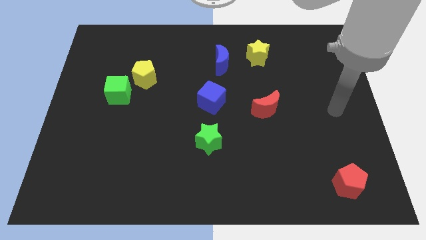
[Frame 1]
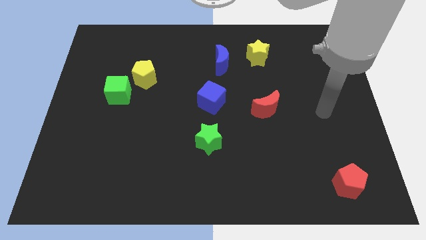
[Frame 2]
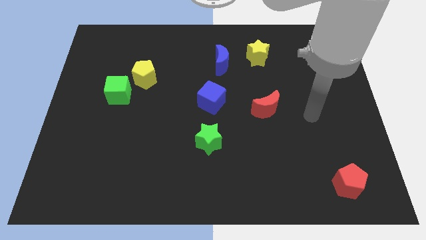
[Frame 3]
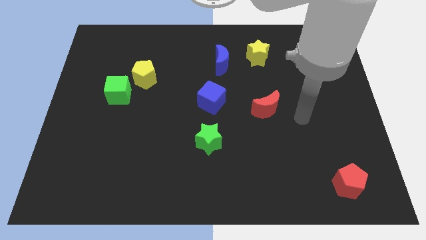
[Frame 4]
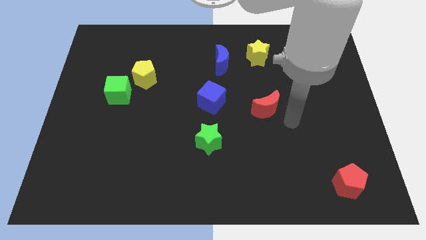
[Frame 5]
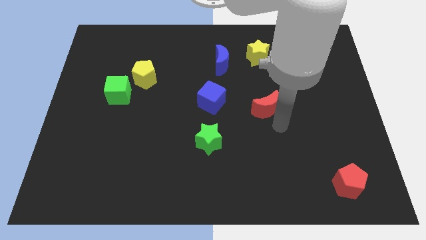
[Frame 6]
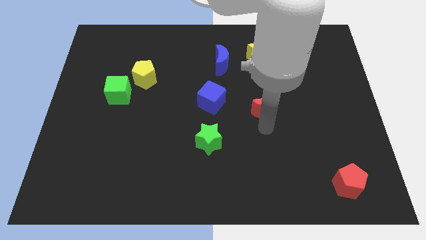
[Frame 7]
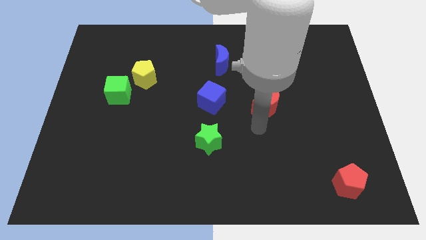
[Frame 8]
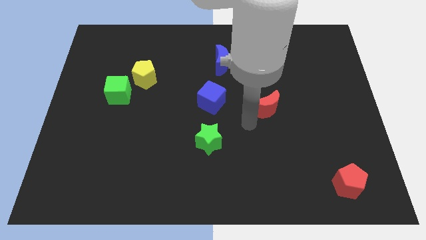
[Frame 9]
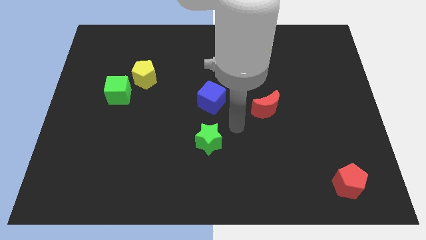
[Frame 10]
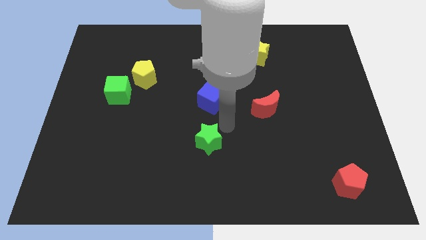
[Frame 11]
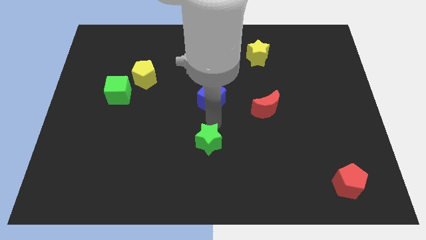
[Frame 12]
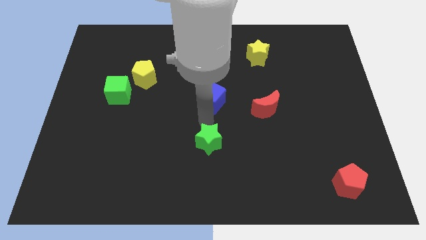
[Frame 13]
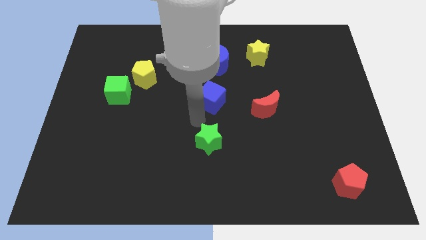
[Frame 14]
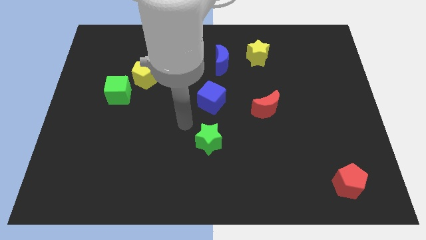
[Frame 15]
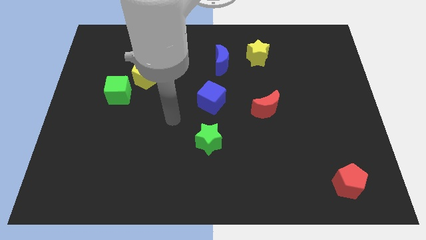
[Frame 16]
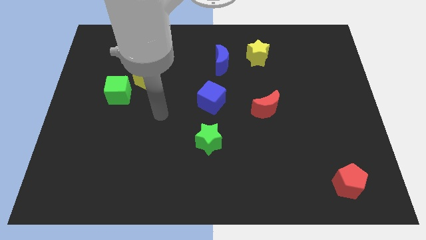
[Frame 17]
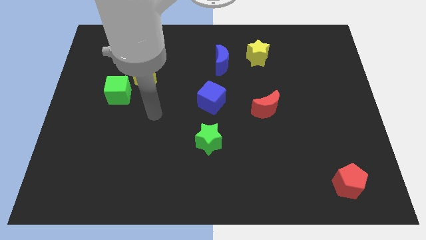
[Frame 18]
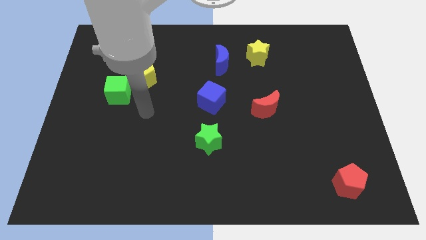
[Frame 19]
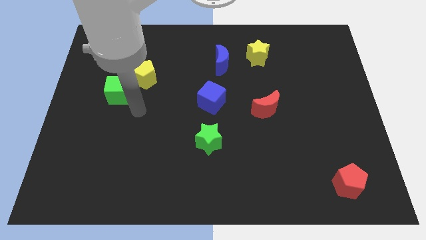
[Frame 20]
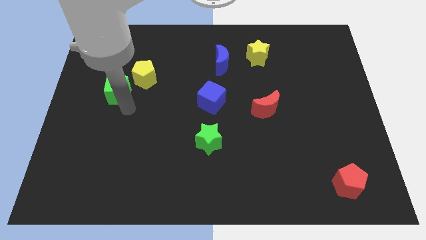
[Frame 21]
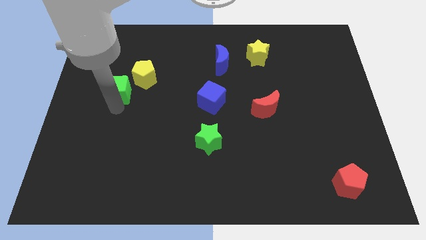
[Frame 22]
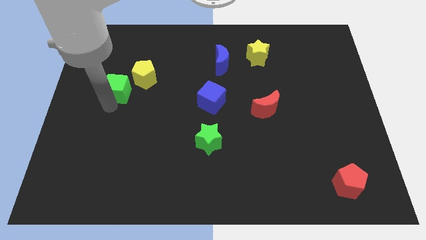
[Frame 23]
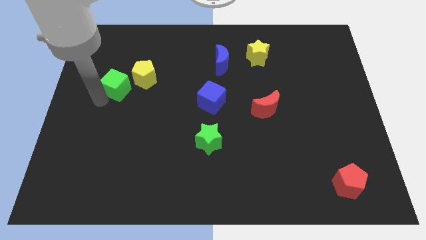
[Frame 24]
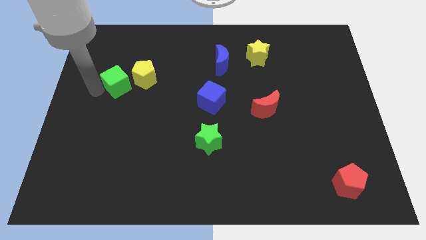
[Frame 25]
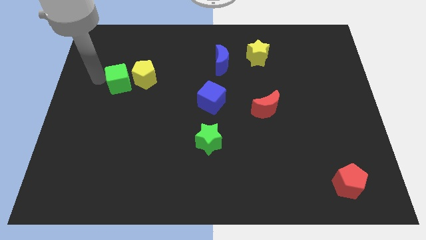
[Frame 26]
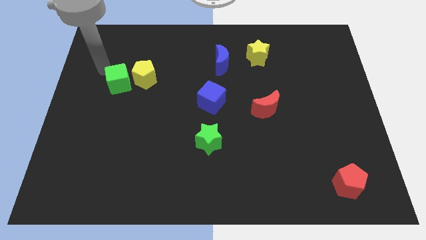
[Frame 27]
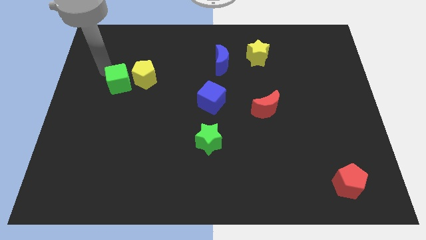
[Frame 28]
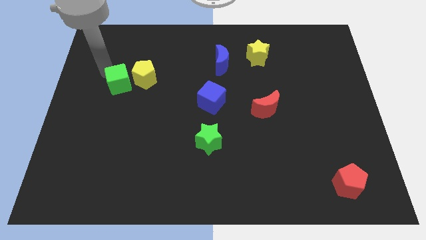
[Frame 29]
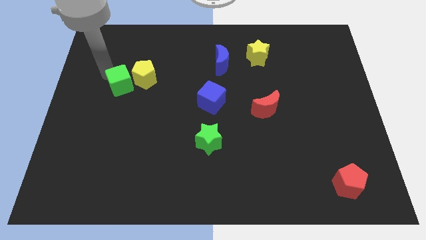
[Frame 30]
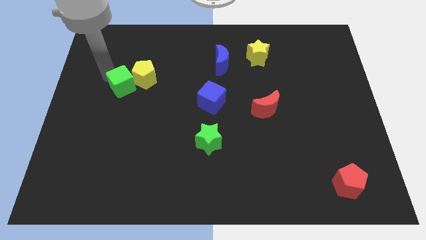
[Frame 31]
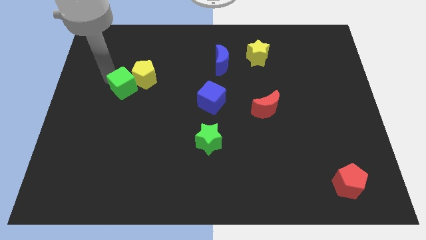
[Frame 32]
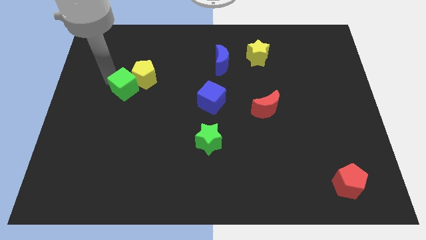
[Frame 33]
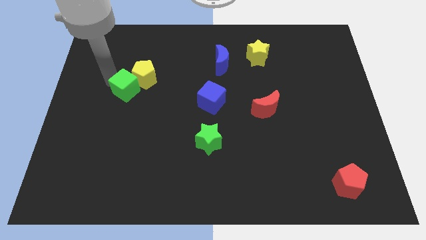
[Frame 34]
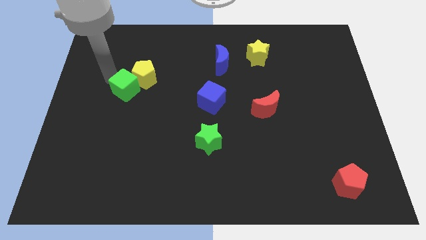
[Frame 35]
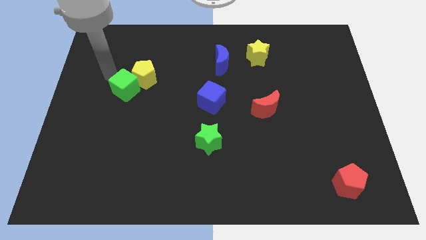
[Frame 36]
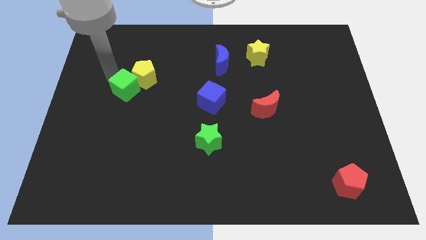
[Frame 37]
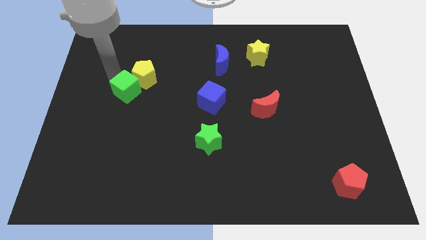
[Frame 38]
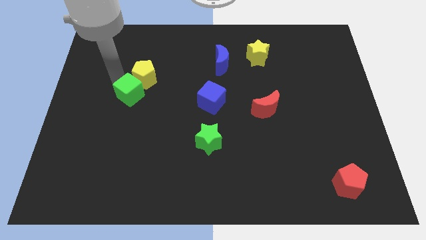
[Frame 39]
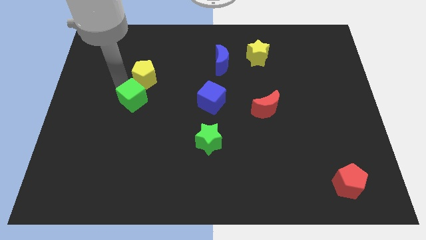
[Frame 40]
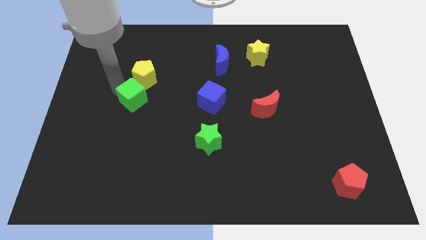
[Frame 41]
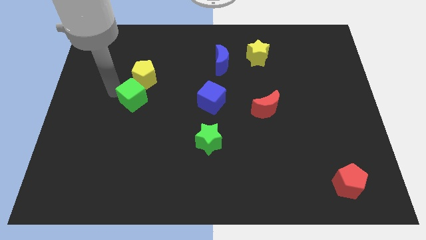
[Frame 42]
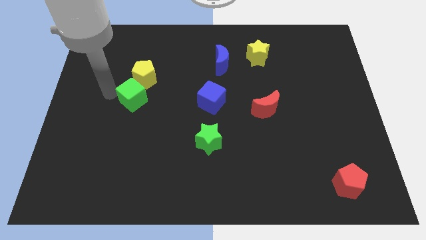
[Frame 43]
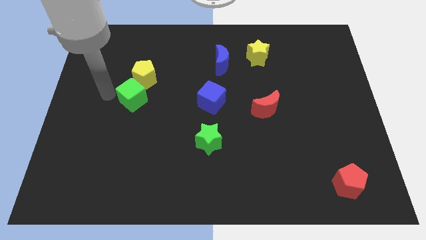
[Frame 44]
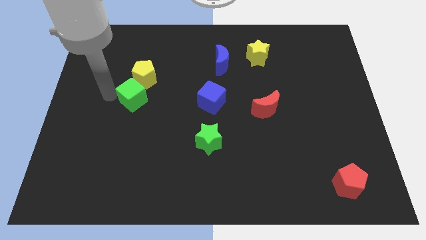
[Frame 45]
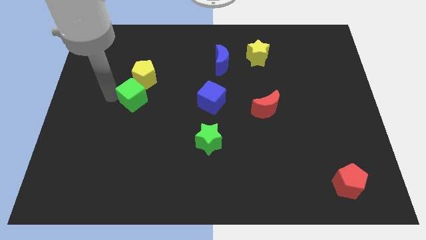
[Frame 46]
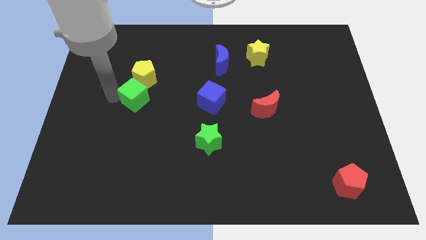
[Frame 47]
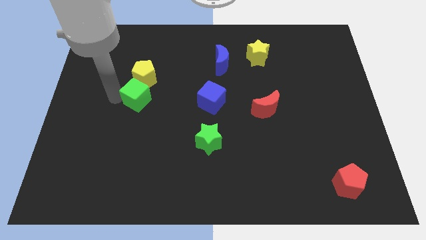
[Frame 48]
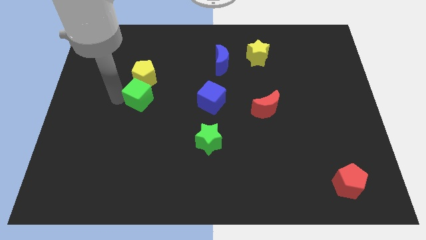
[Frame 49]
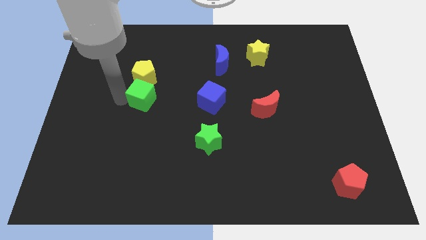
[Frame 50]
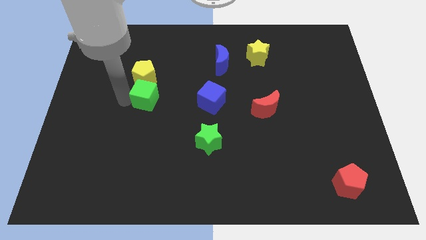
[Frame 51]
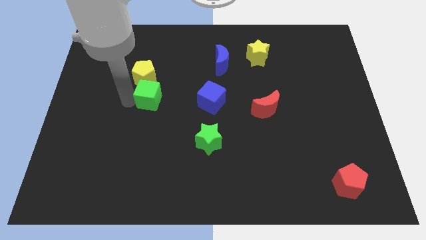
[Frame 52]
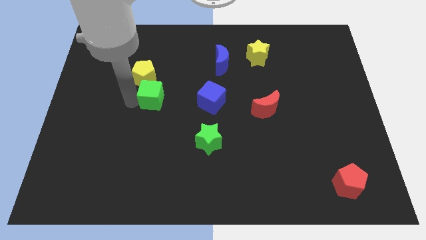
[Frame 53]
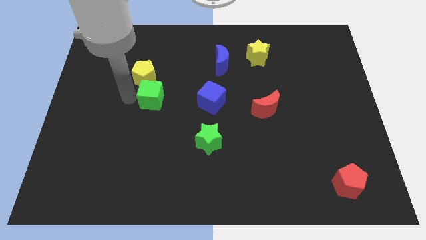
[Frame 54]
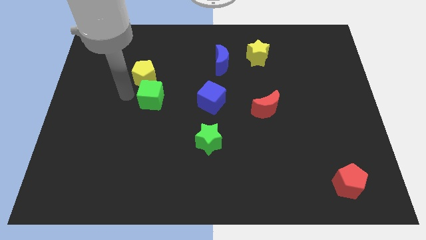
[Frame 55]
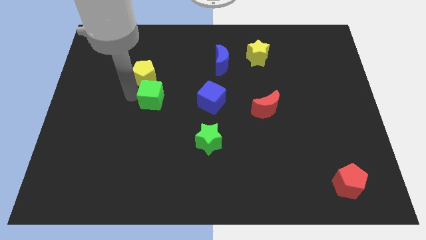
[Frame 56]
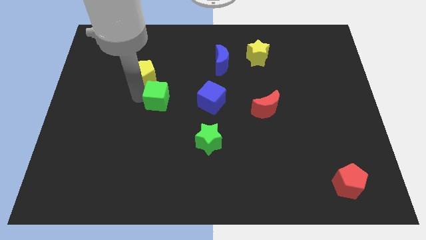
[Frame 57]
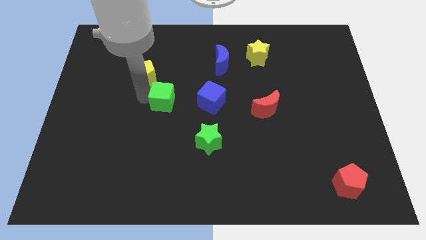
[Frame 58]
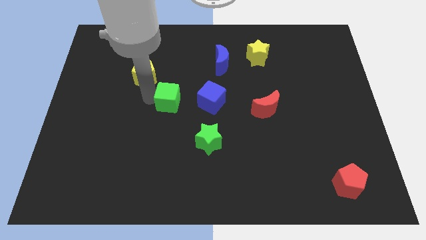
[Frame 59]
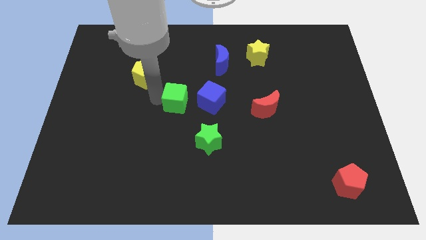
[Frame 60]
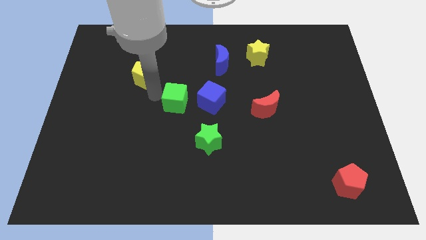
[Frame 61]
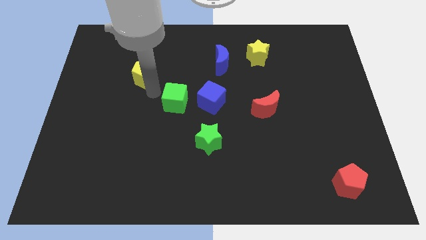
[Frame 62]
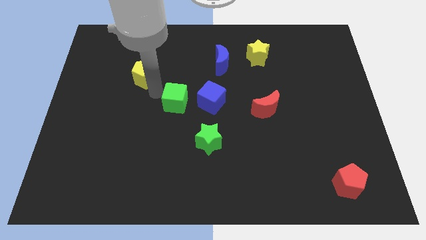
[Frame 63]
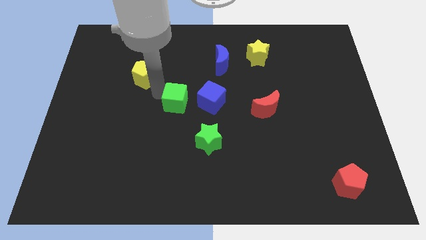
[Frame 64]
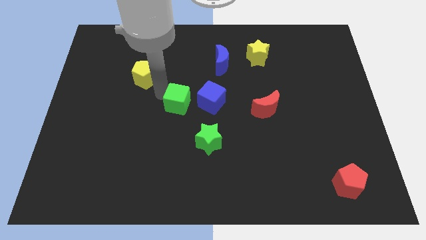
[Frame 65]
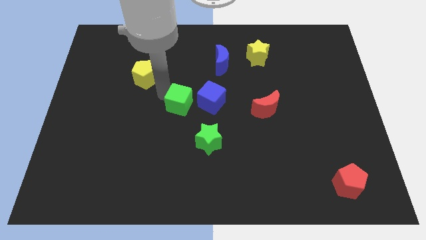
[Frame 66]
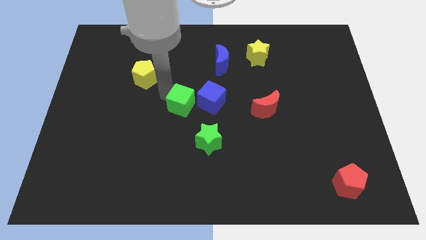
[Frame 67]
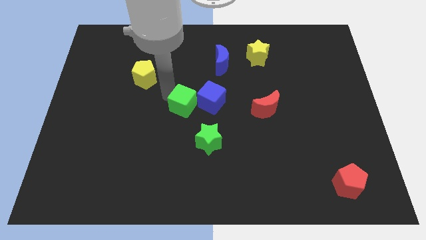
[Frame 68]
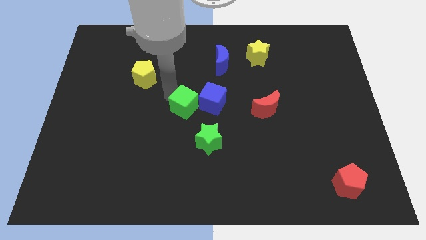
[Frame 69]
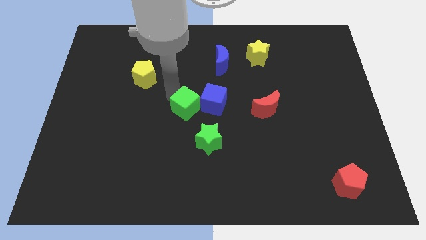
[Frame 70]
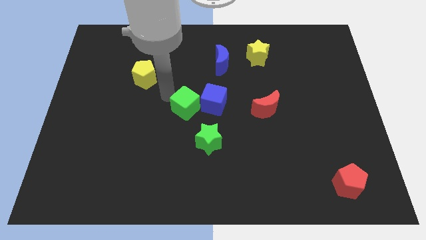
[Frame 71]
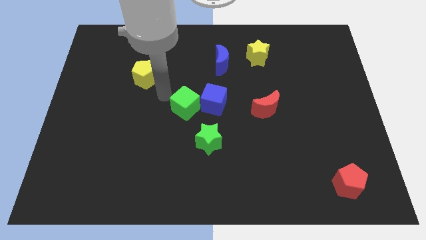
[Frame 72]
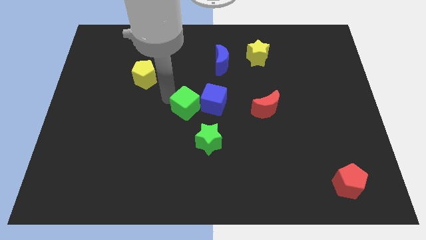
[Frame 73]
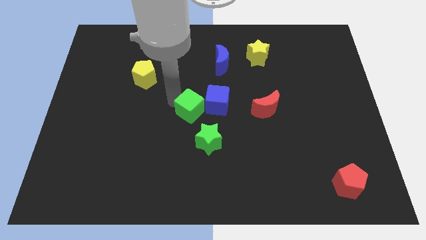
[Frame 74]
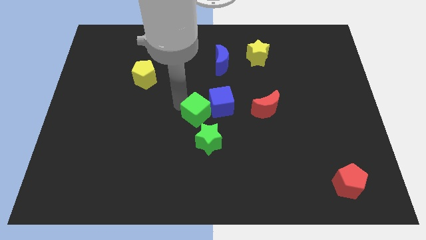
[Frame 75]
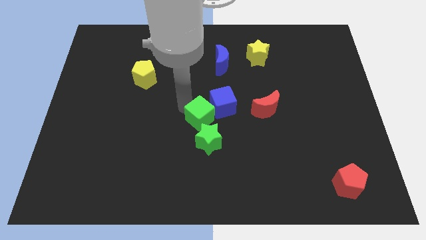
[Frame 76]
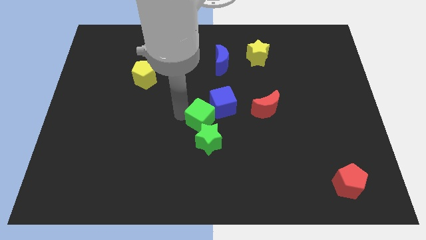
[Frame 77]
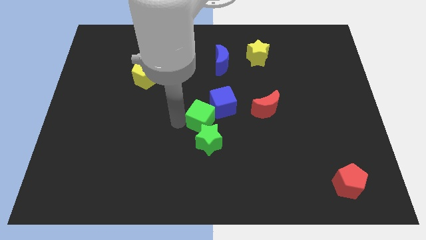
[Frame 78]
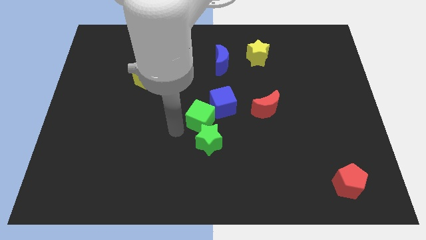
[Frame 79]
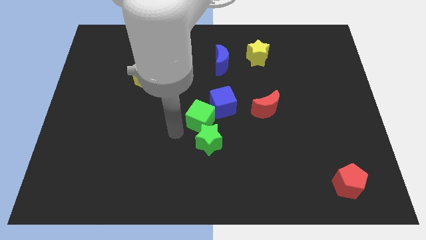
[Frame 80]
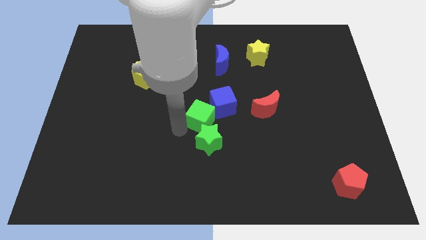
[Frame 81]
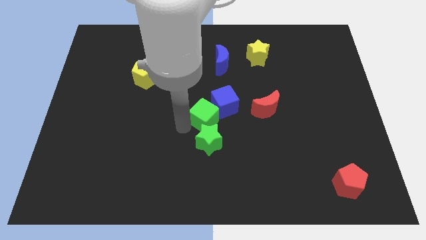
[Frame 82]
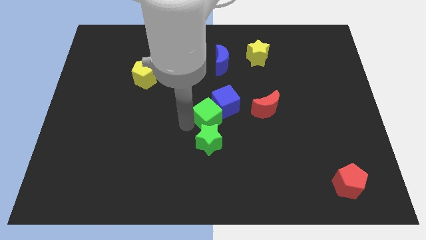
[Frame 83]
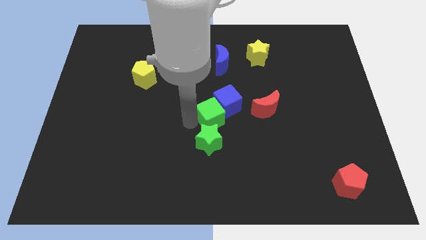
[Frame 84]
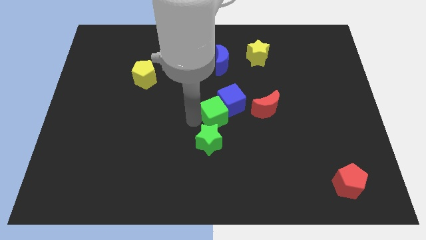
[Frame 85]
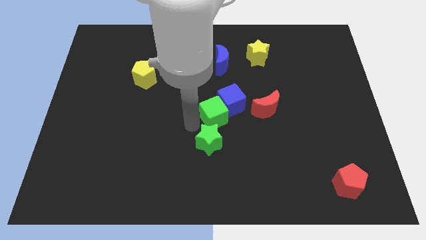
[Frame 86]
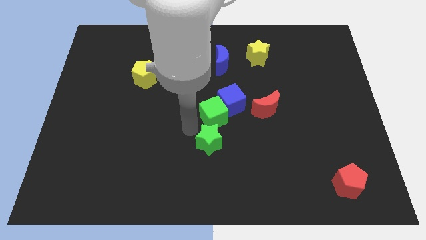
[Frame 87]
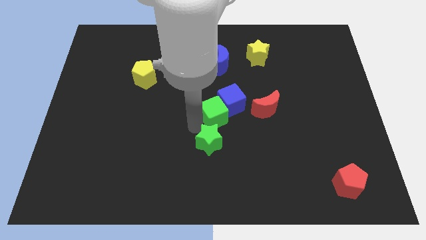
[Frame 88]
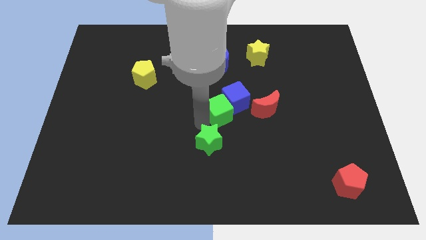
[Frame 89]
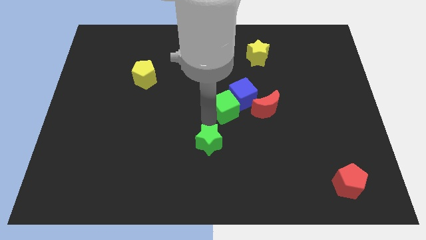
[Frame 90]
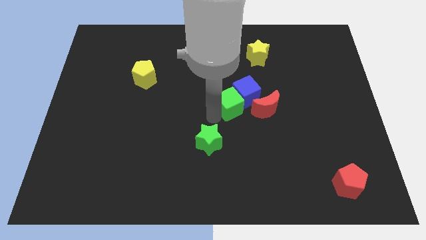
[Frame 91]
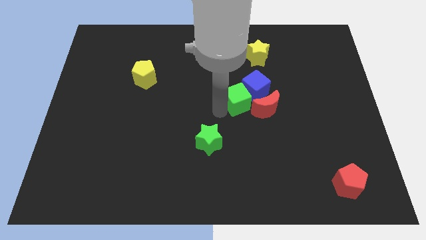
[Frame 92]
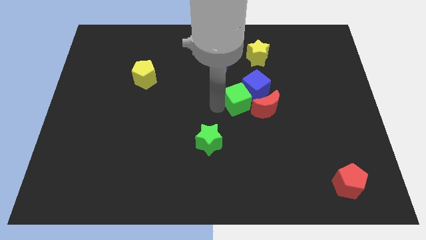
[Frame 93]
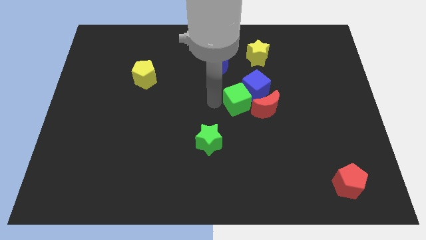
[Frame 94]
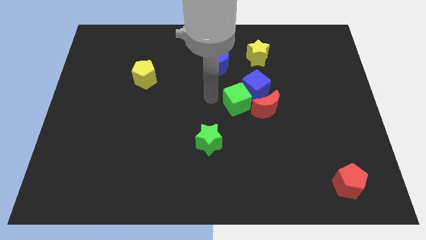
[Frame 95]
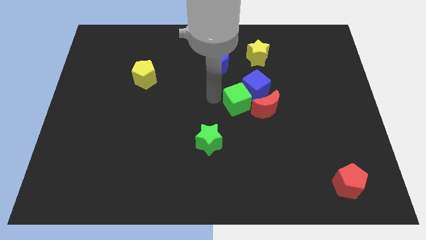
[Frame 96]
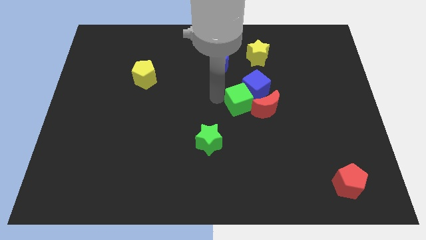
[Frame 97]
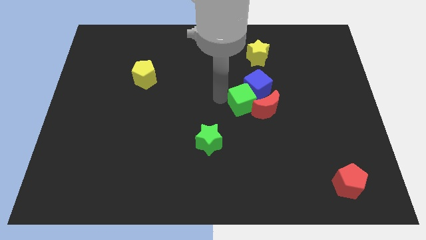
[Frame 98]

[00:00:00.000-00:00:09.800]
put the green cube close to the red moon
